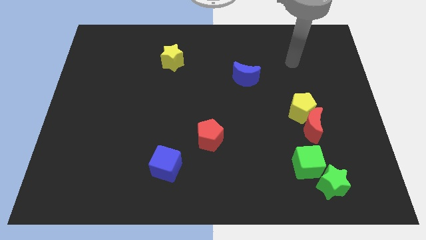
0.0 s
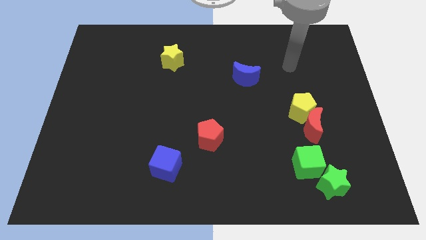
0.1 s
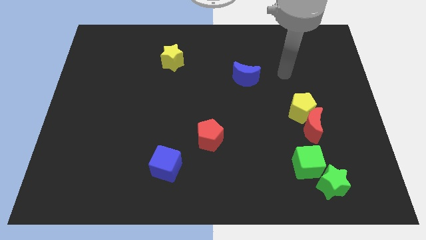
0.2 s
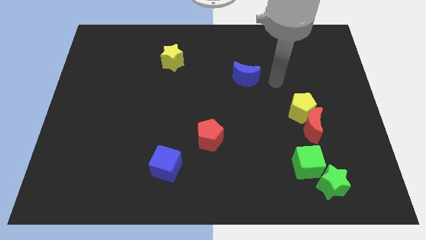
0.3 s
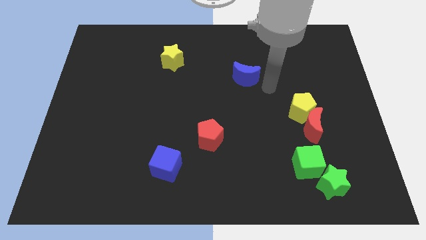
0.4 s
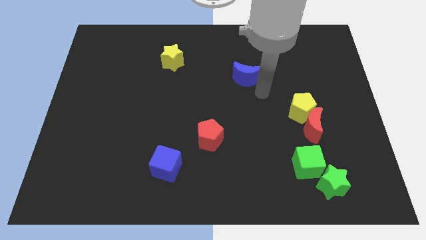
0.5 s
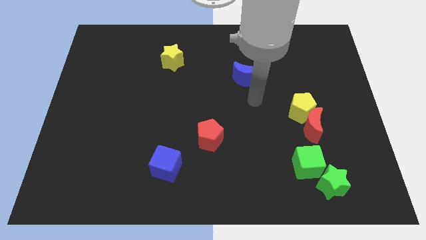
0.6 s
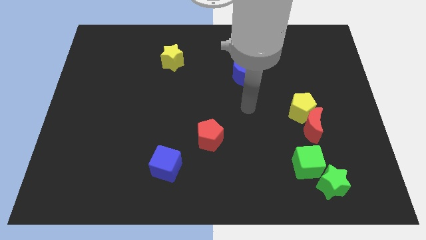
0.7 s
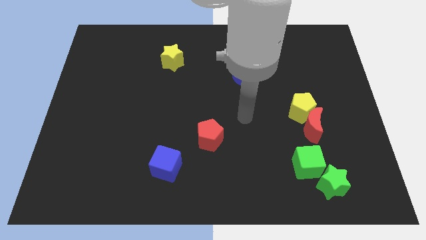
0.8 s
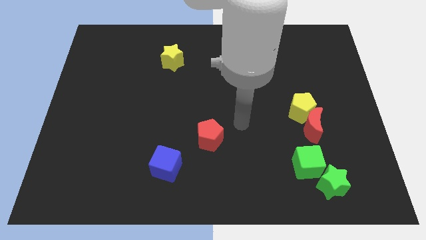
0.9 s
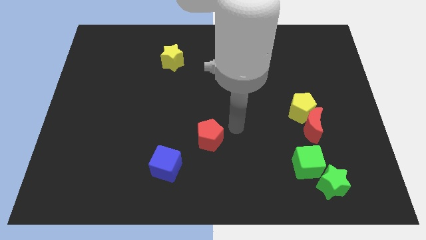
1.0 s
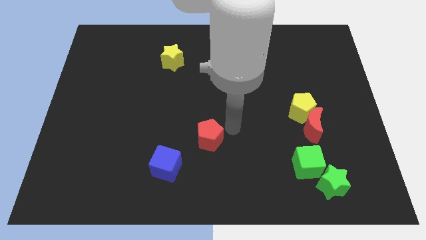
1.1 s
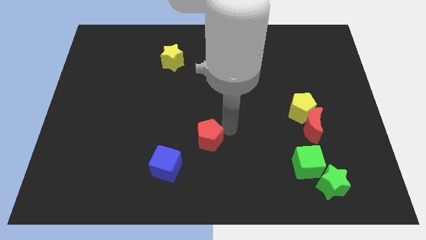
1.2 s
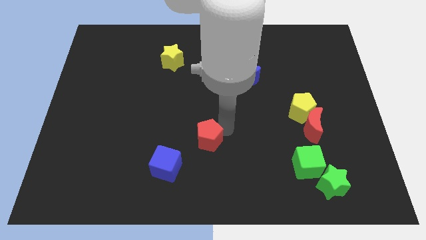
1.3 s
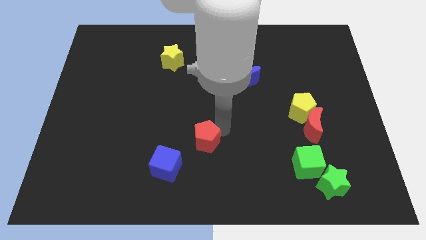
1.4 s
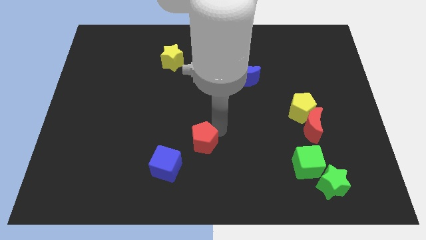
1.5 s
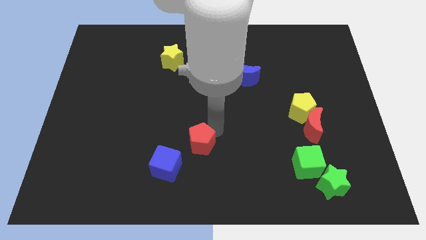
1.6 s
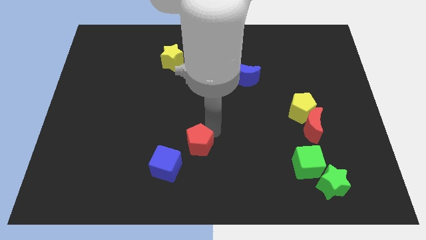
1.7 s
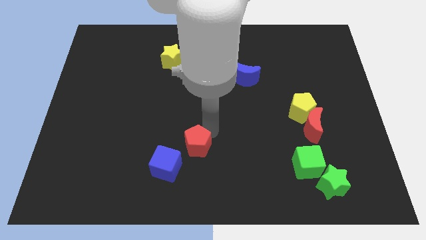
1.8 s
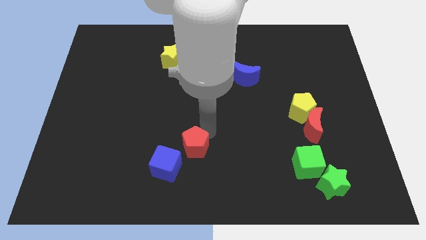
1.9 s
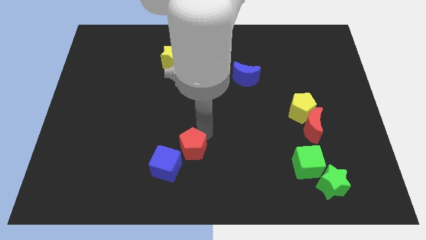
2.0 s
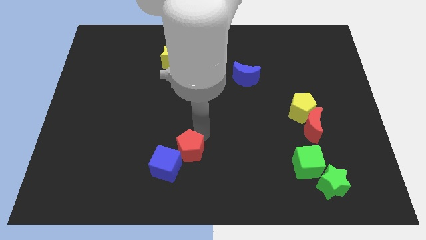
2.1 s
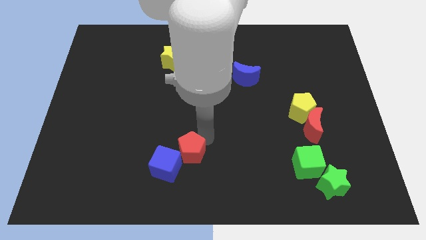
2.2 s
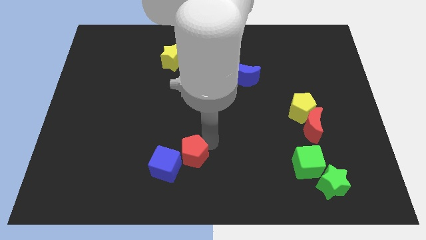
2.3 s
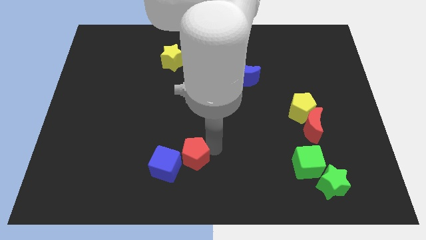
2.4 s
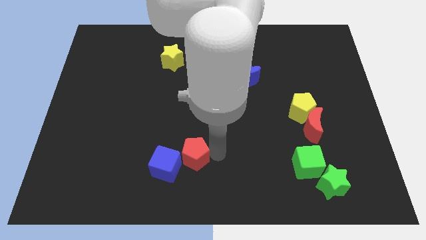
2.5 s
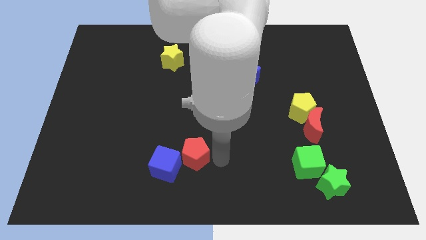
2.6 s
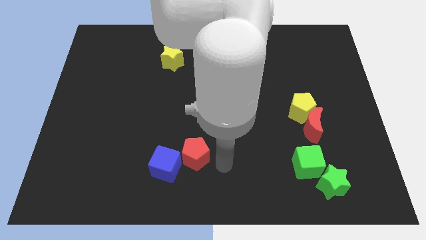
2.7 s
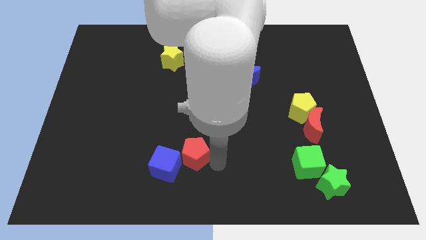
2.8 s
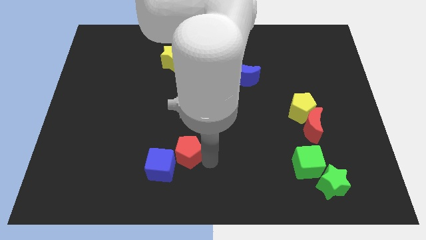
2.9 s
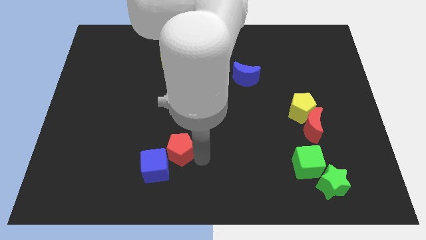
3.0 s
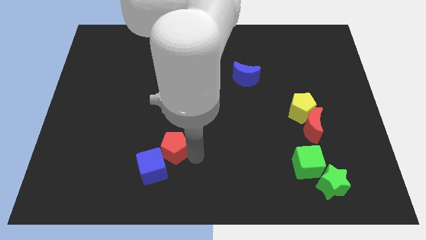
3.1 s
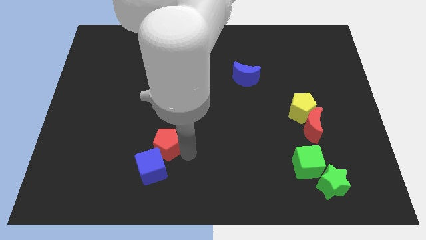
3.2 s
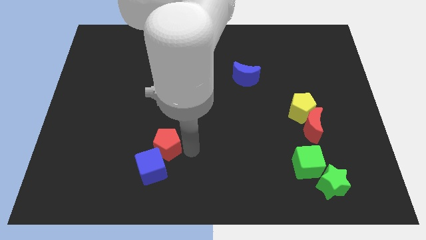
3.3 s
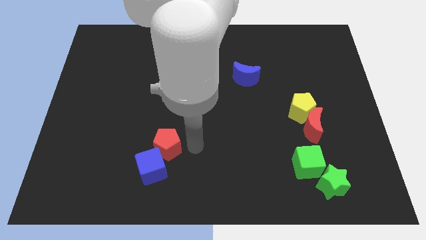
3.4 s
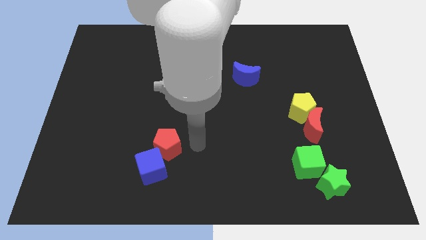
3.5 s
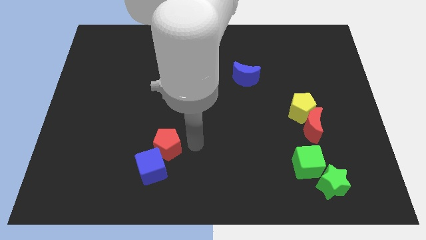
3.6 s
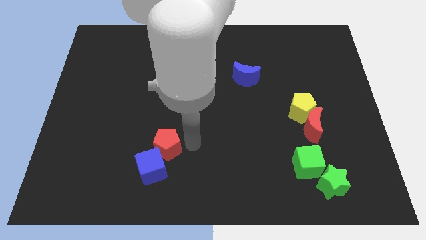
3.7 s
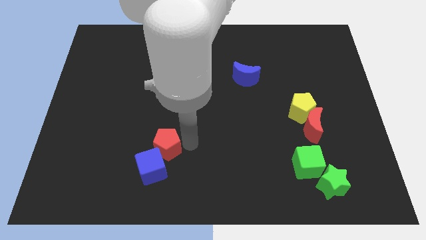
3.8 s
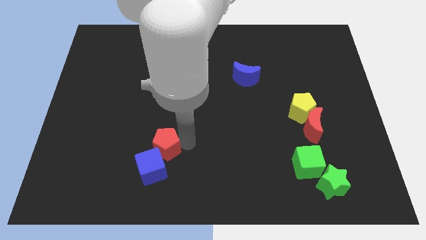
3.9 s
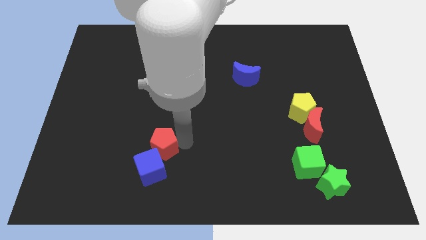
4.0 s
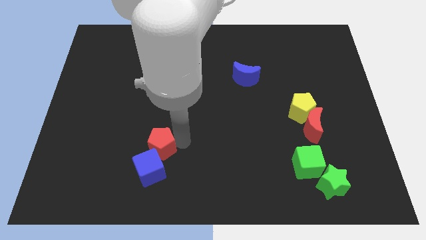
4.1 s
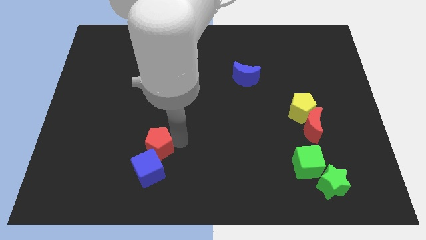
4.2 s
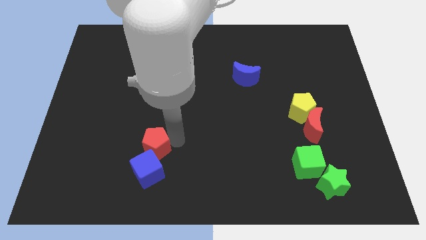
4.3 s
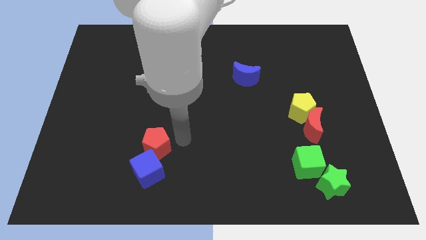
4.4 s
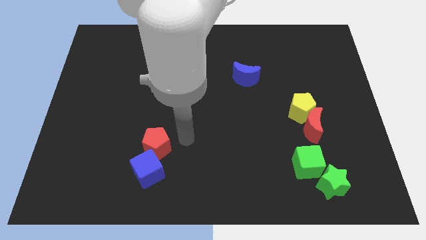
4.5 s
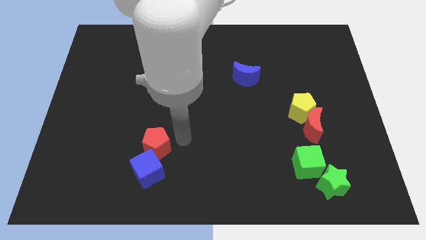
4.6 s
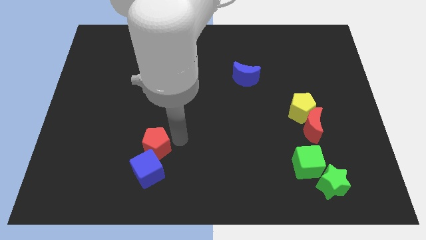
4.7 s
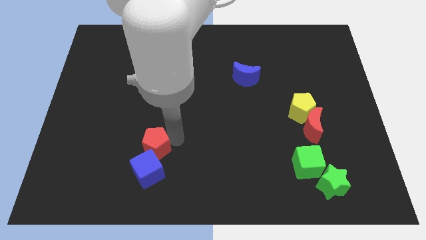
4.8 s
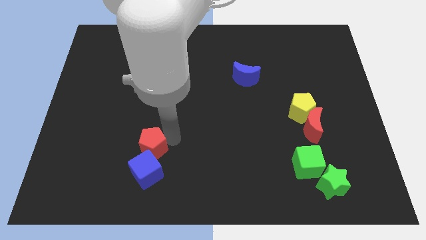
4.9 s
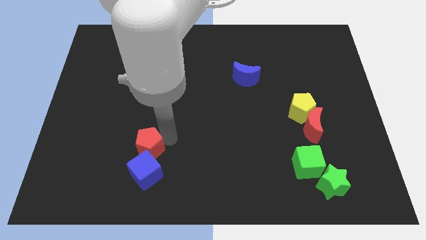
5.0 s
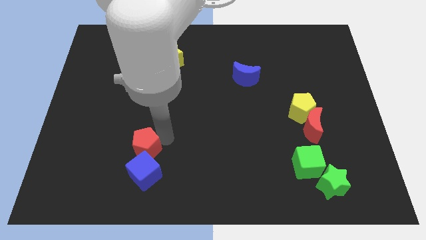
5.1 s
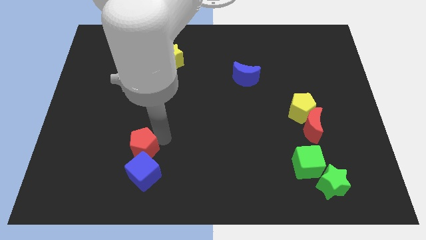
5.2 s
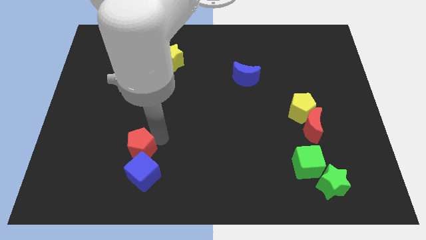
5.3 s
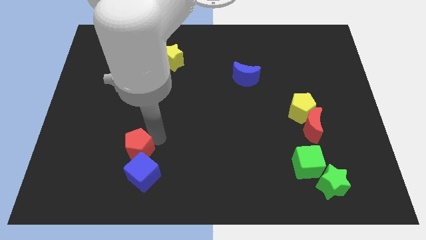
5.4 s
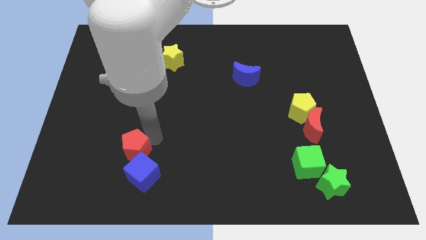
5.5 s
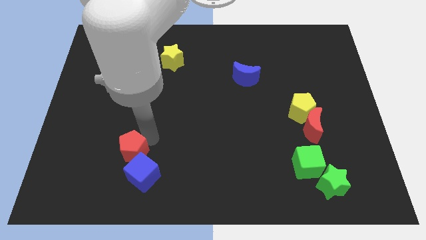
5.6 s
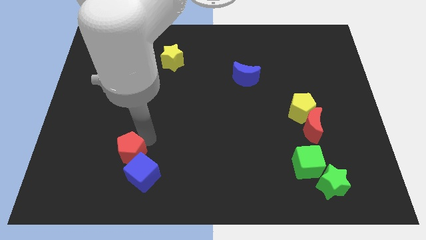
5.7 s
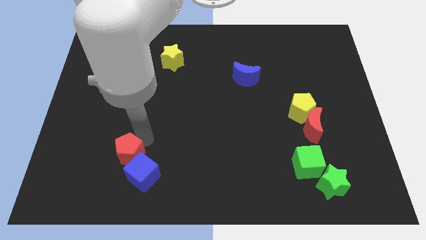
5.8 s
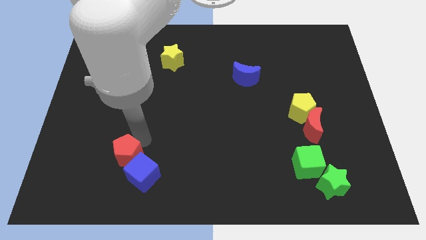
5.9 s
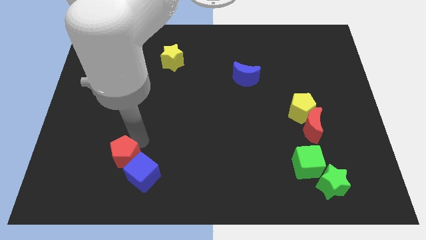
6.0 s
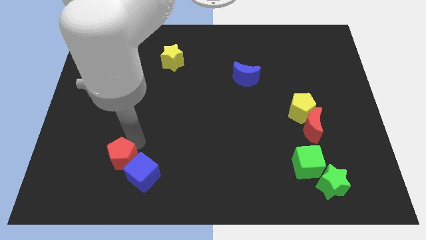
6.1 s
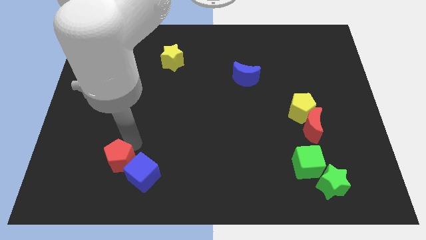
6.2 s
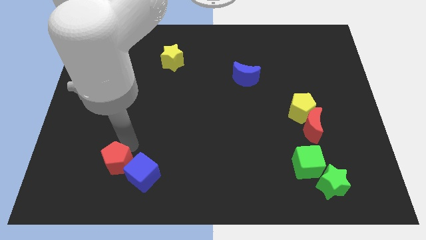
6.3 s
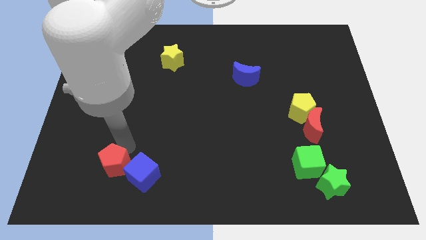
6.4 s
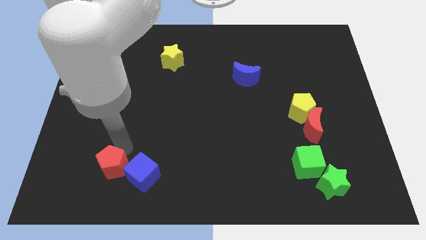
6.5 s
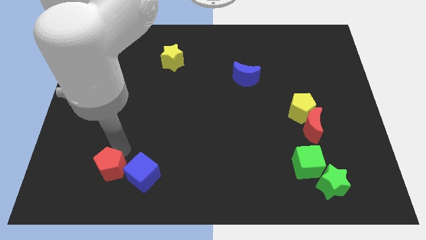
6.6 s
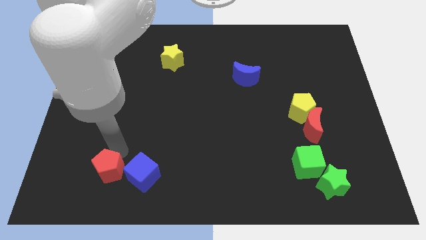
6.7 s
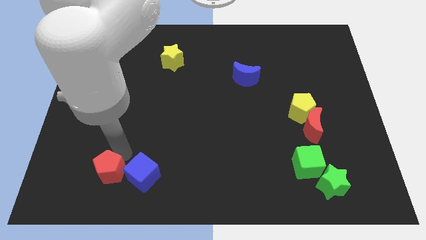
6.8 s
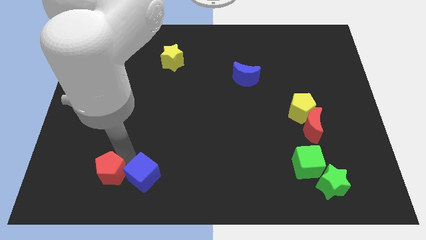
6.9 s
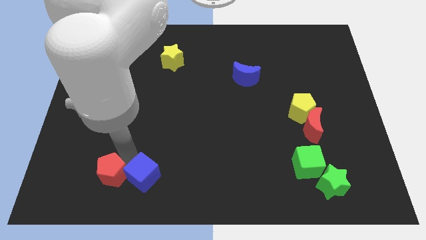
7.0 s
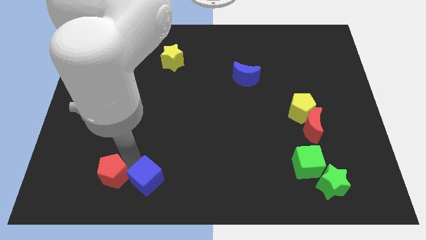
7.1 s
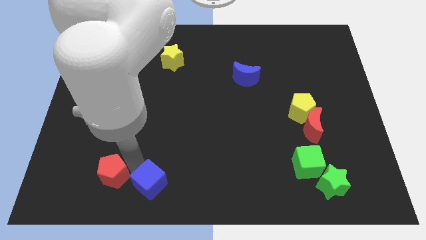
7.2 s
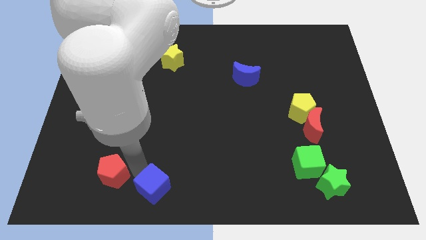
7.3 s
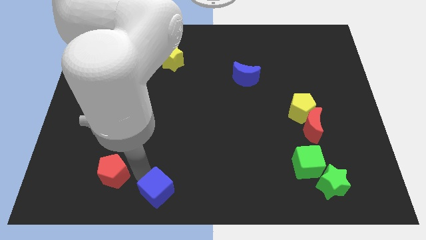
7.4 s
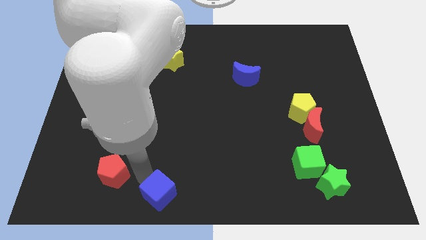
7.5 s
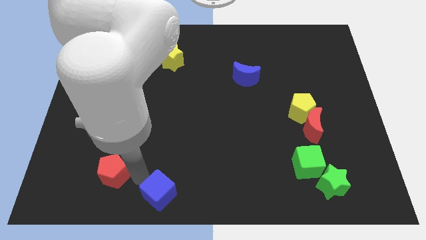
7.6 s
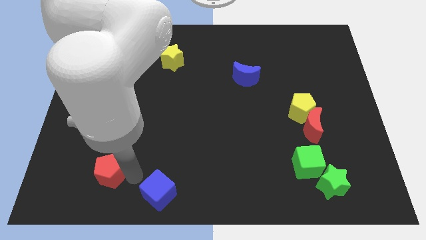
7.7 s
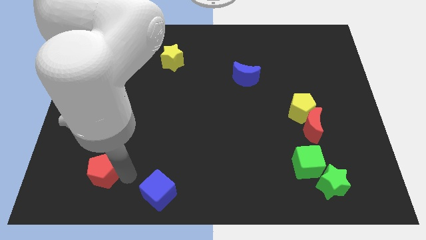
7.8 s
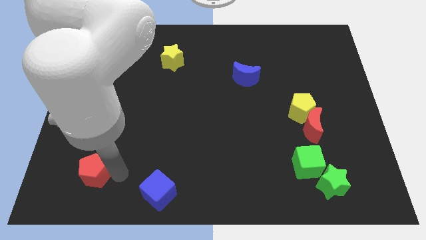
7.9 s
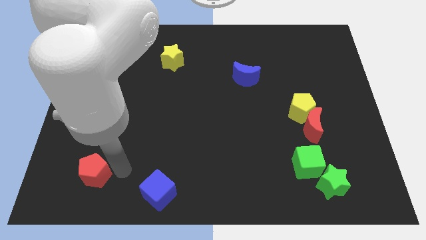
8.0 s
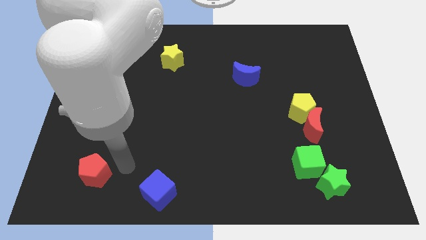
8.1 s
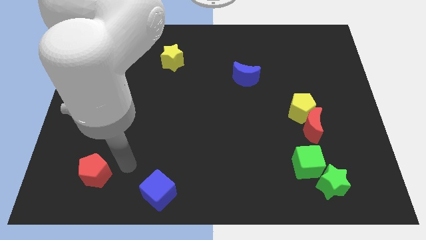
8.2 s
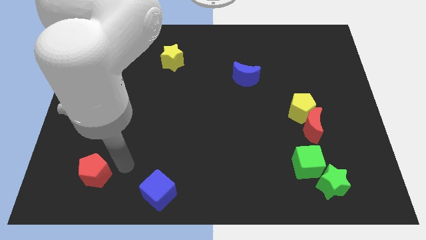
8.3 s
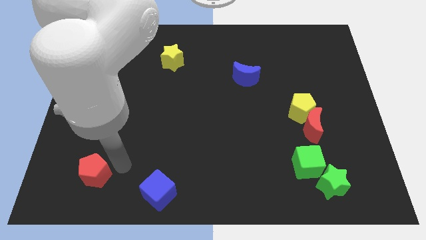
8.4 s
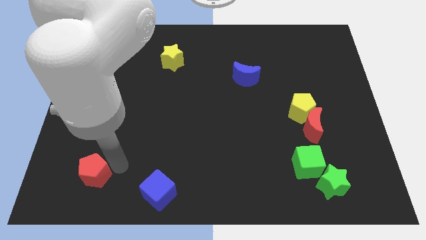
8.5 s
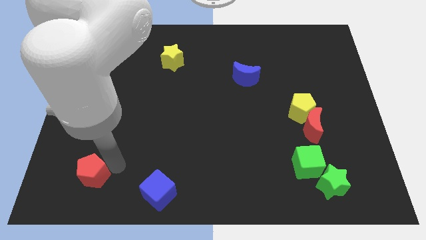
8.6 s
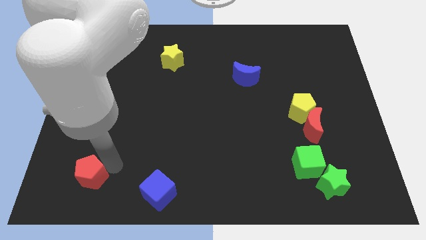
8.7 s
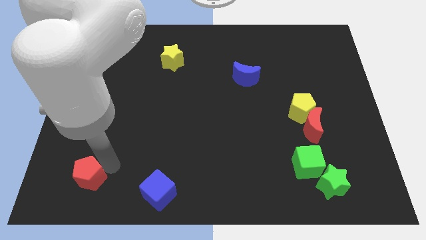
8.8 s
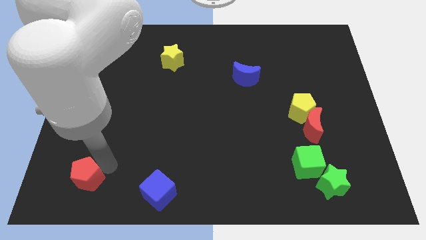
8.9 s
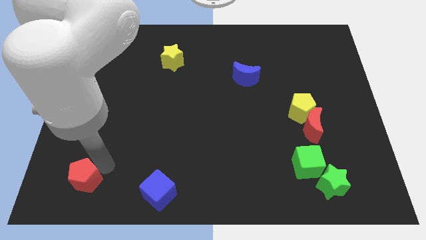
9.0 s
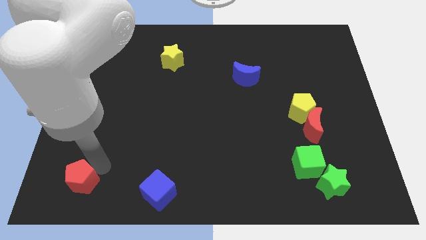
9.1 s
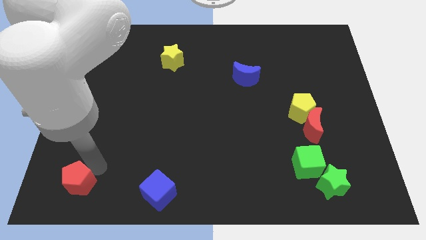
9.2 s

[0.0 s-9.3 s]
put the red pentagon to the bottom left corner
